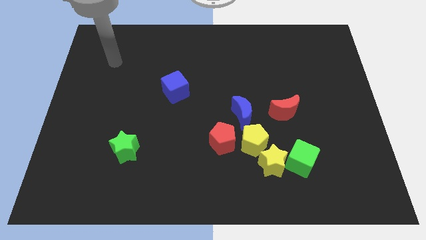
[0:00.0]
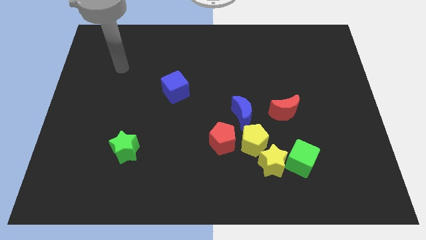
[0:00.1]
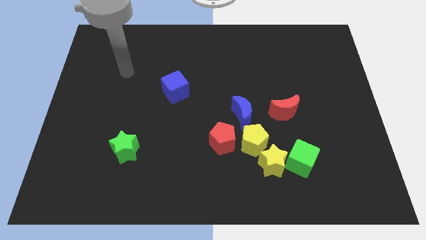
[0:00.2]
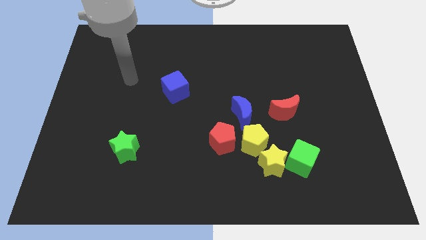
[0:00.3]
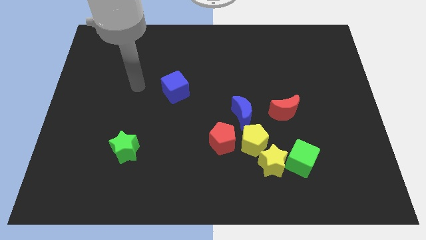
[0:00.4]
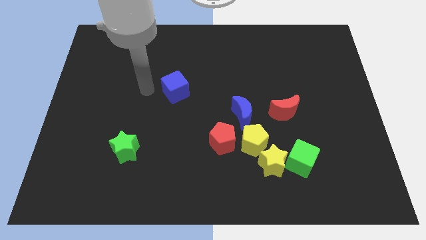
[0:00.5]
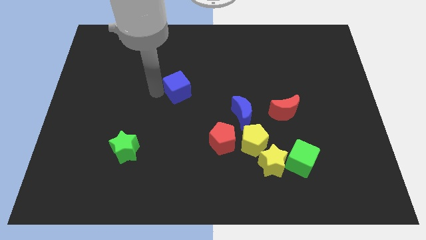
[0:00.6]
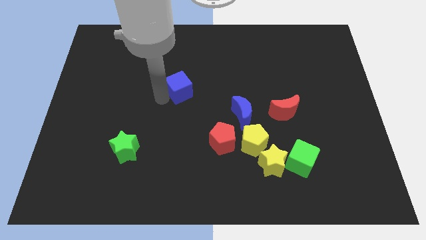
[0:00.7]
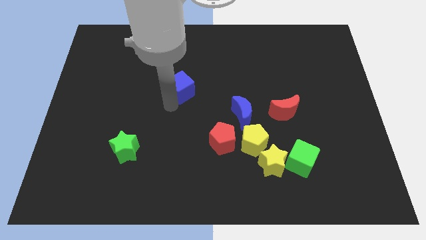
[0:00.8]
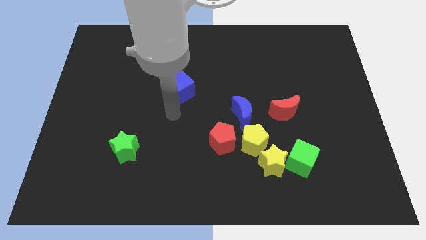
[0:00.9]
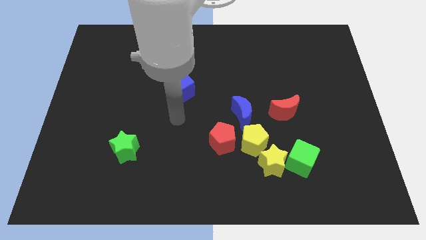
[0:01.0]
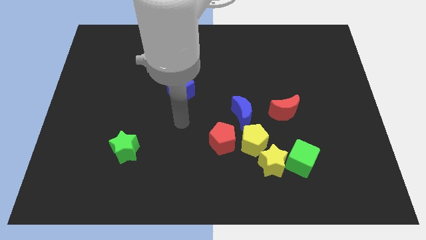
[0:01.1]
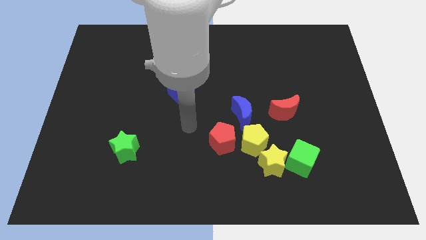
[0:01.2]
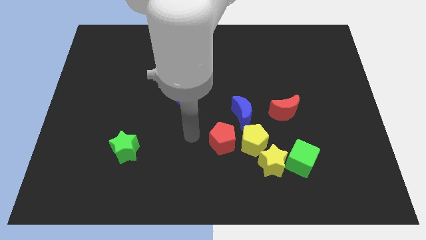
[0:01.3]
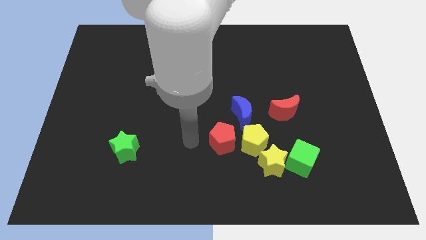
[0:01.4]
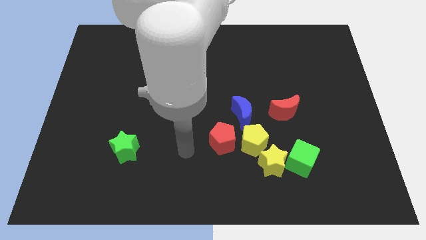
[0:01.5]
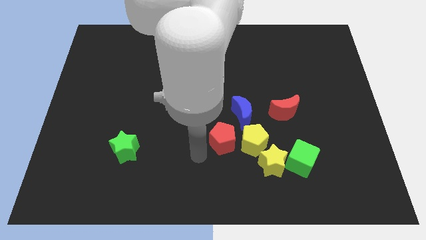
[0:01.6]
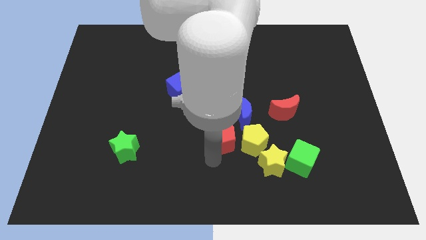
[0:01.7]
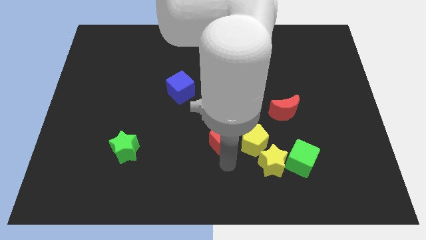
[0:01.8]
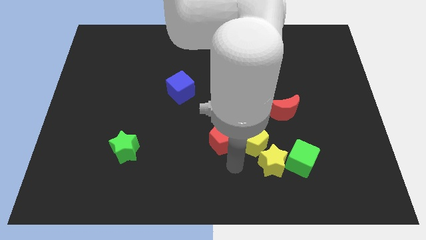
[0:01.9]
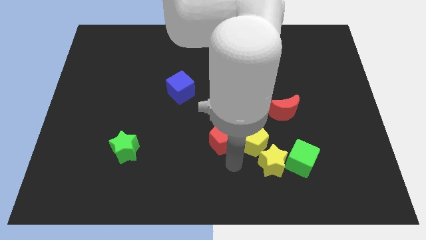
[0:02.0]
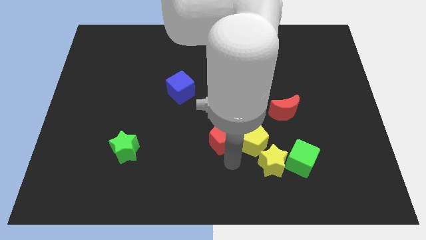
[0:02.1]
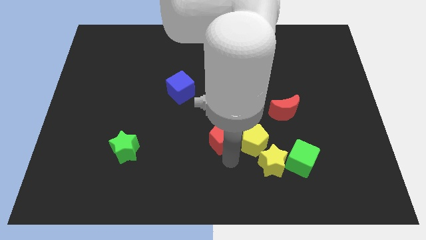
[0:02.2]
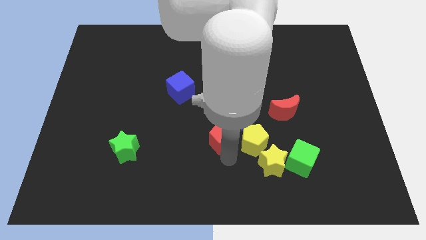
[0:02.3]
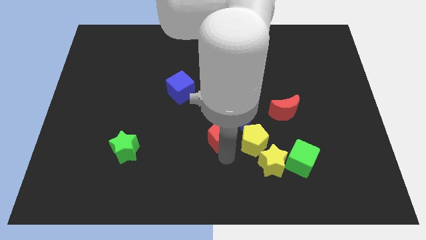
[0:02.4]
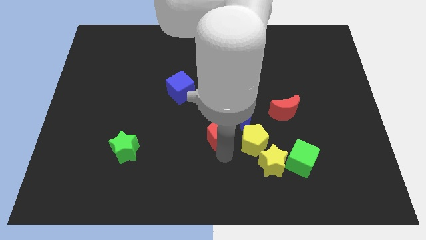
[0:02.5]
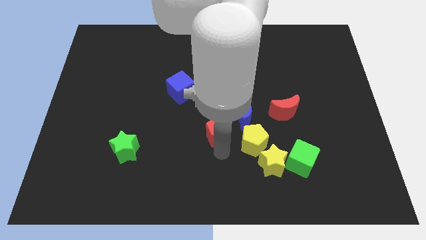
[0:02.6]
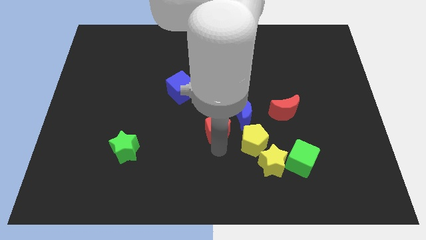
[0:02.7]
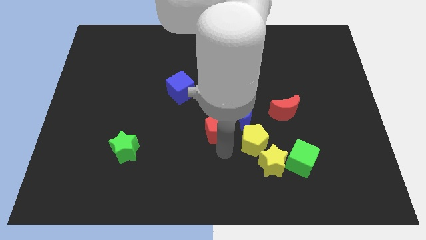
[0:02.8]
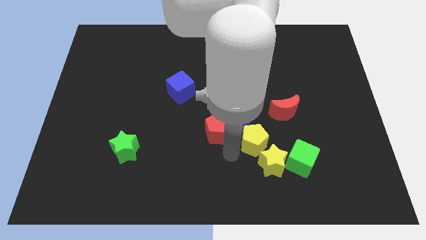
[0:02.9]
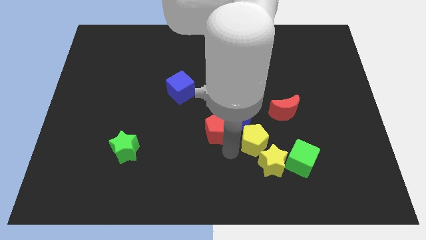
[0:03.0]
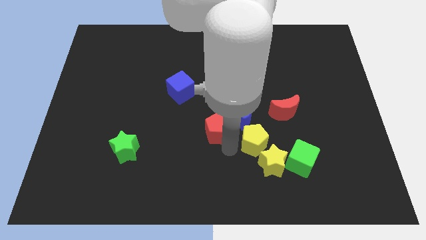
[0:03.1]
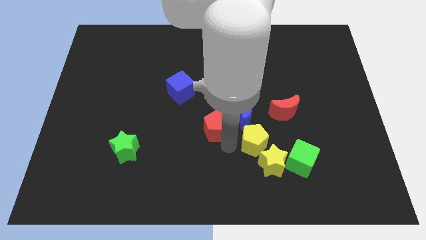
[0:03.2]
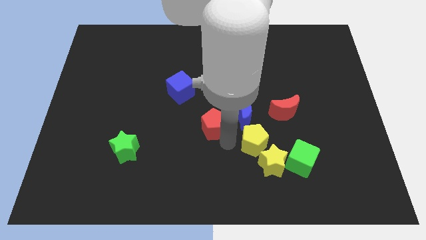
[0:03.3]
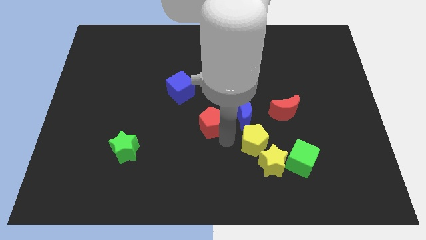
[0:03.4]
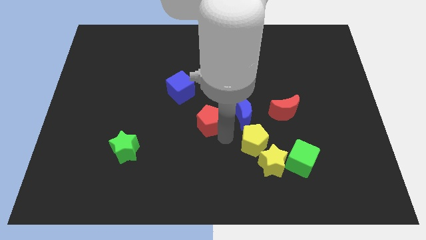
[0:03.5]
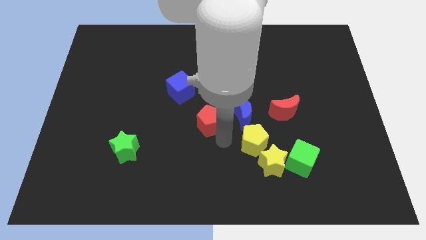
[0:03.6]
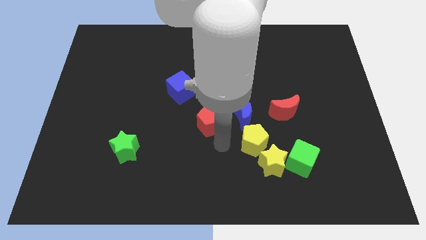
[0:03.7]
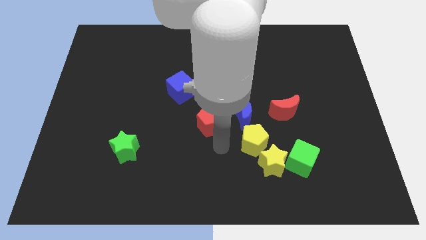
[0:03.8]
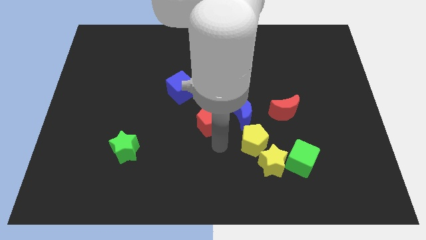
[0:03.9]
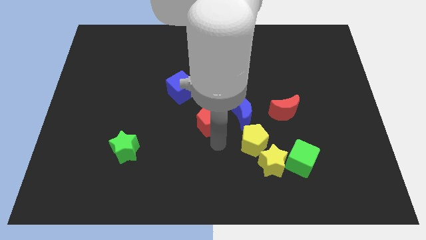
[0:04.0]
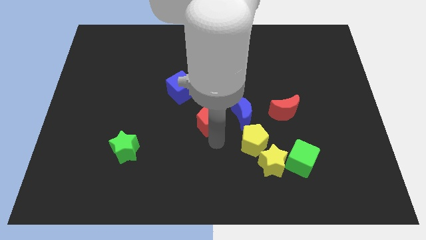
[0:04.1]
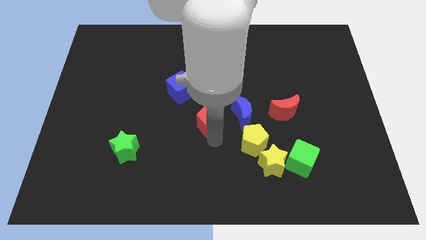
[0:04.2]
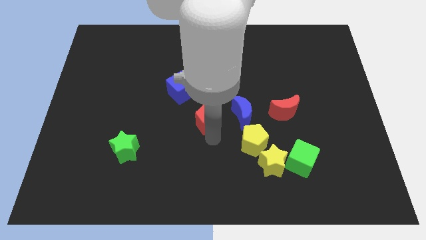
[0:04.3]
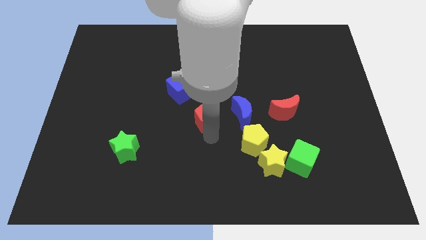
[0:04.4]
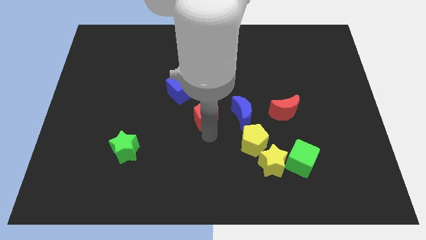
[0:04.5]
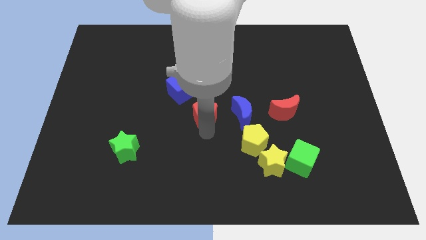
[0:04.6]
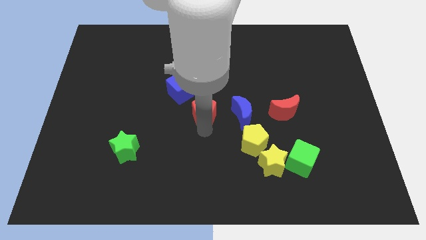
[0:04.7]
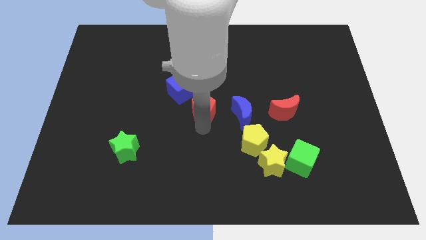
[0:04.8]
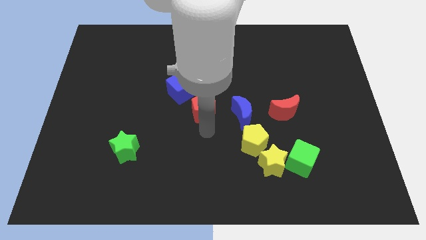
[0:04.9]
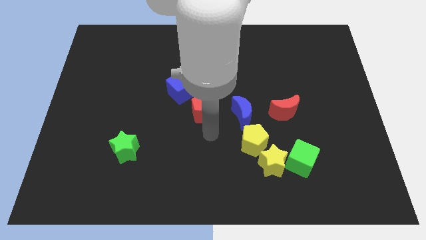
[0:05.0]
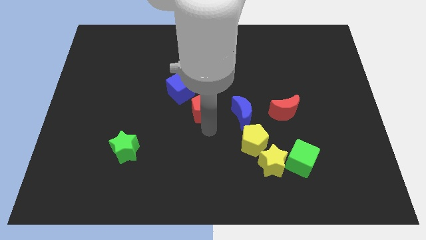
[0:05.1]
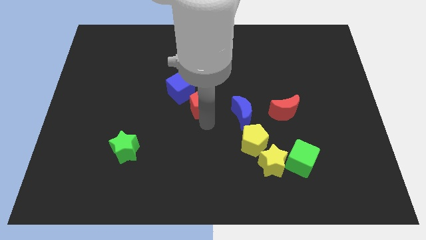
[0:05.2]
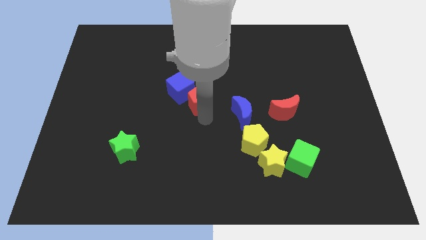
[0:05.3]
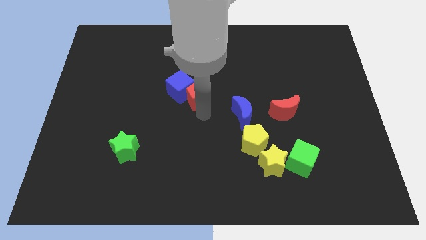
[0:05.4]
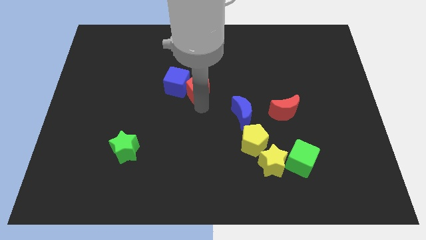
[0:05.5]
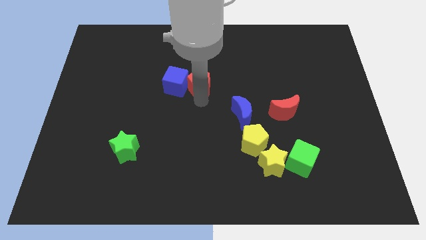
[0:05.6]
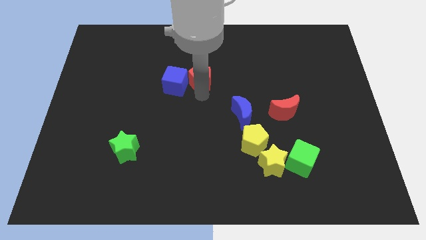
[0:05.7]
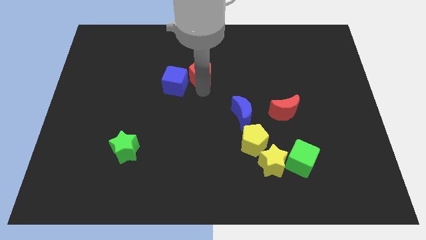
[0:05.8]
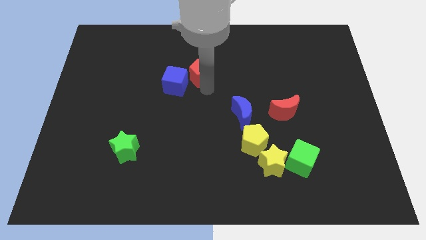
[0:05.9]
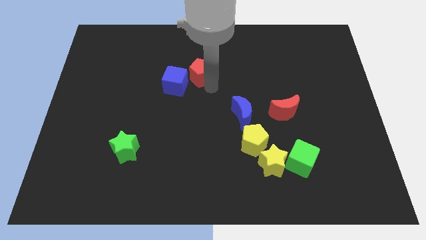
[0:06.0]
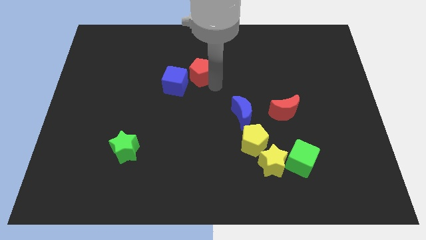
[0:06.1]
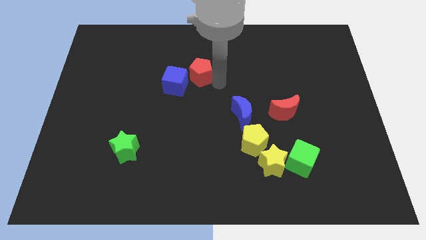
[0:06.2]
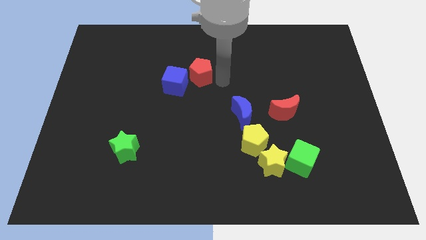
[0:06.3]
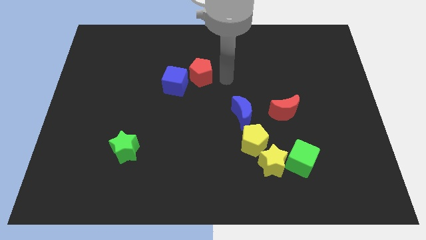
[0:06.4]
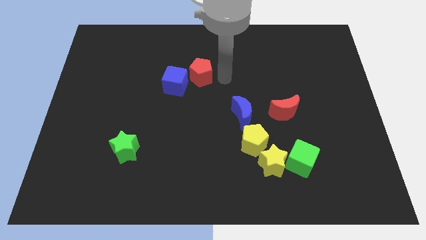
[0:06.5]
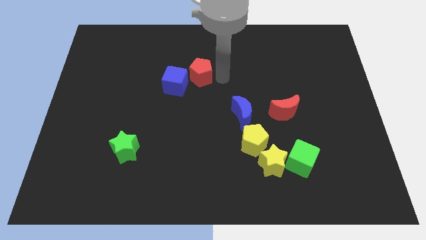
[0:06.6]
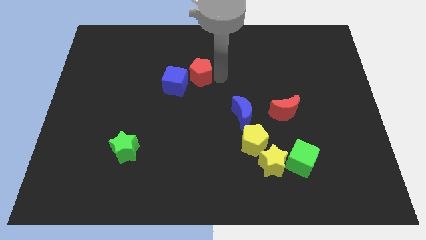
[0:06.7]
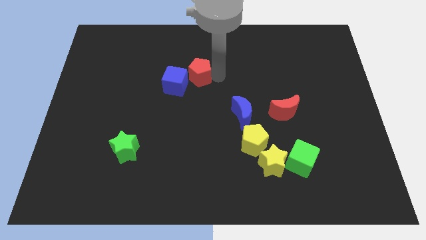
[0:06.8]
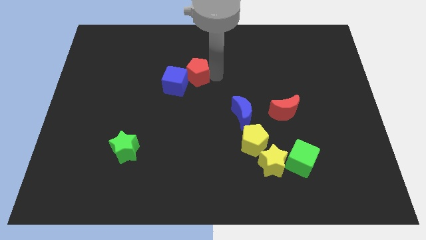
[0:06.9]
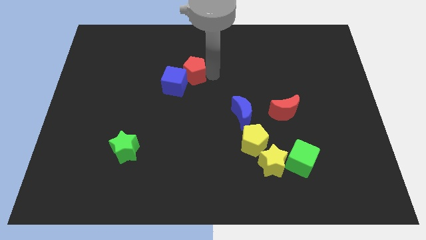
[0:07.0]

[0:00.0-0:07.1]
slide the red pentagon to the top of the blue cube
